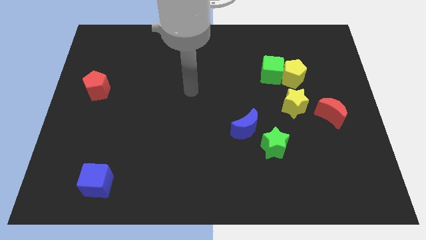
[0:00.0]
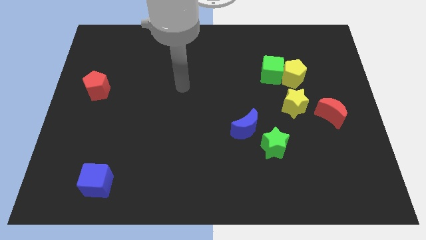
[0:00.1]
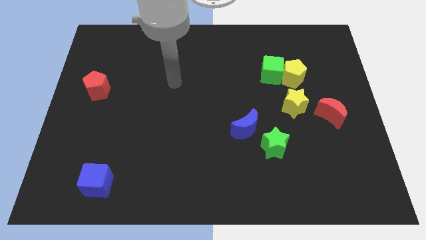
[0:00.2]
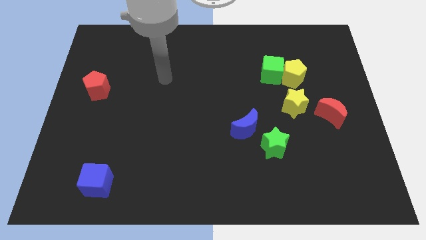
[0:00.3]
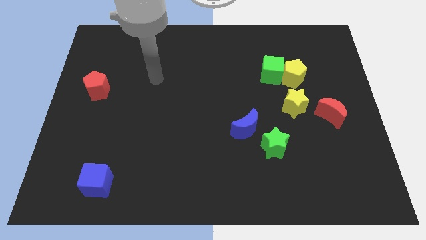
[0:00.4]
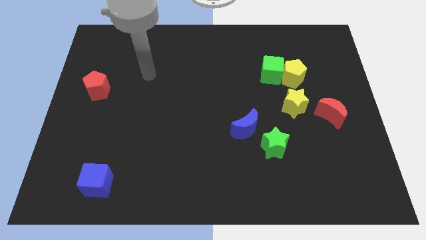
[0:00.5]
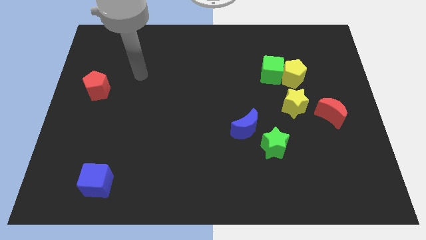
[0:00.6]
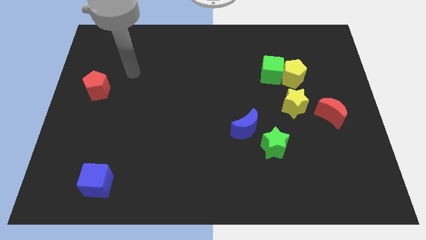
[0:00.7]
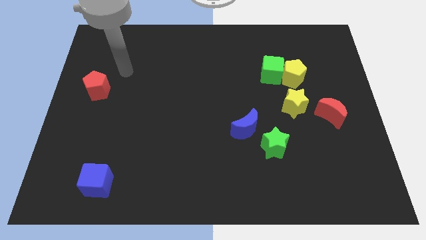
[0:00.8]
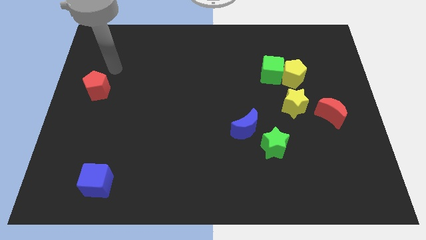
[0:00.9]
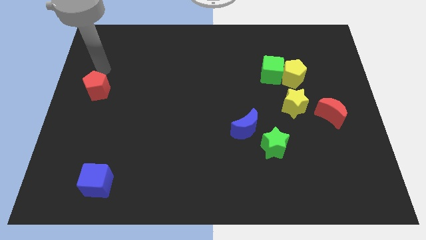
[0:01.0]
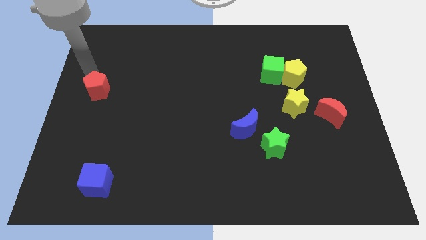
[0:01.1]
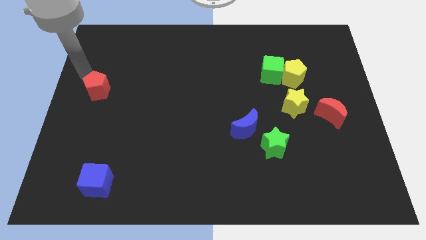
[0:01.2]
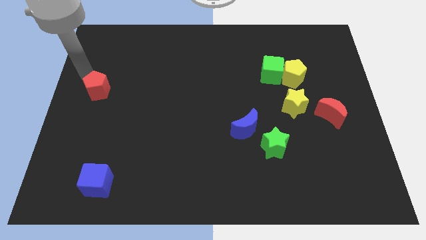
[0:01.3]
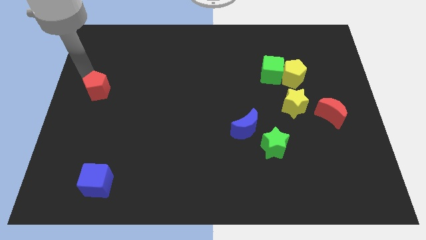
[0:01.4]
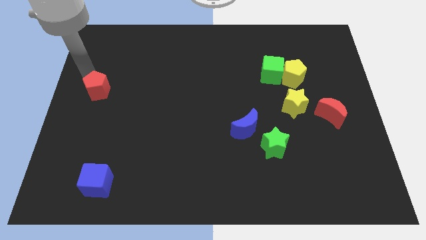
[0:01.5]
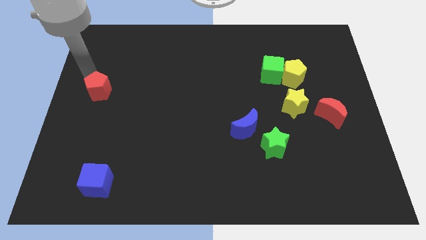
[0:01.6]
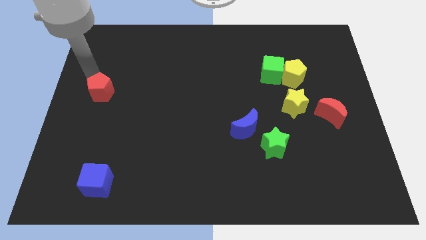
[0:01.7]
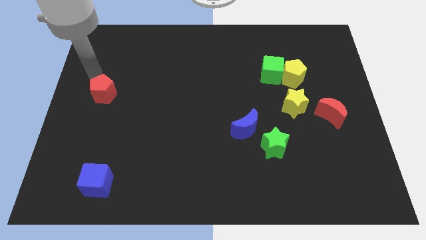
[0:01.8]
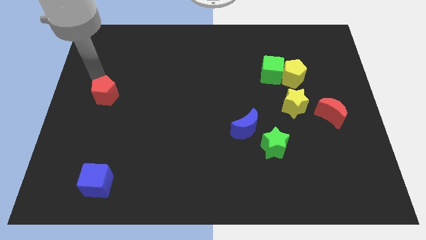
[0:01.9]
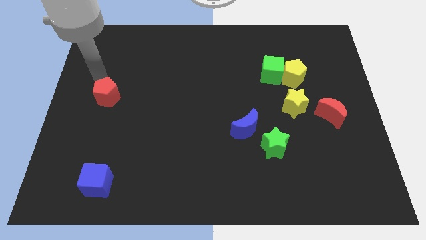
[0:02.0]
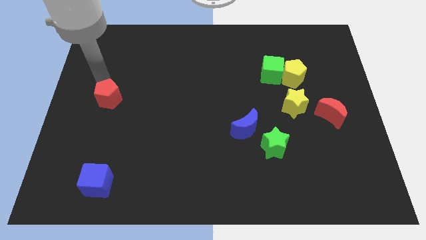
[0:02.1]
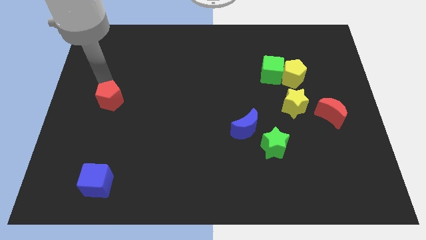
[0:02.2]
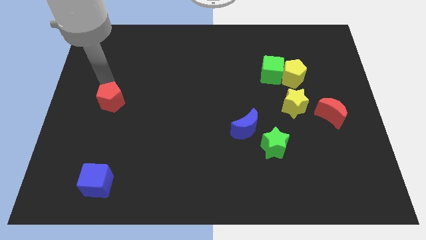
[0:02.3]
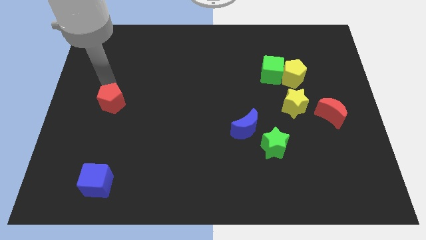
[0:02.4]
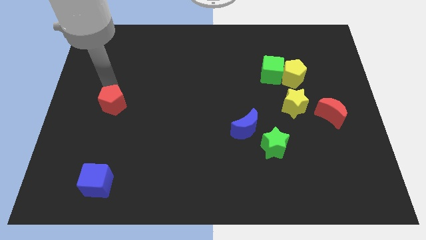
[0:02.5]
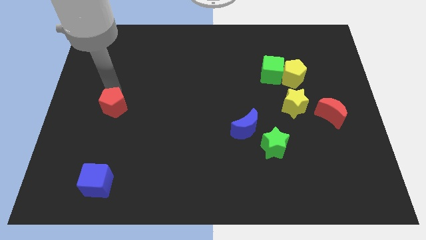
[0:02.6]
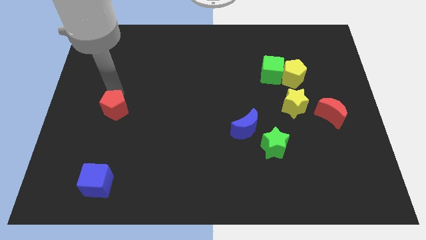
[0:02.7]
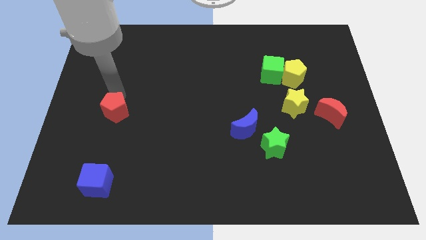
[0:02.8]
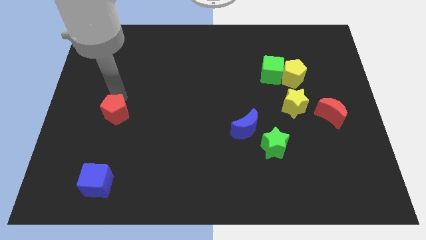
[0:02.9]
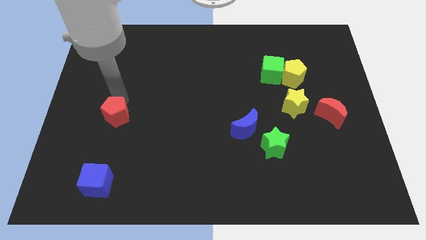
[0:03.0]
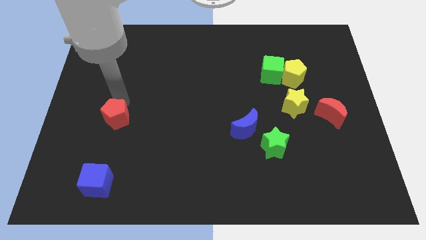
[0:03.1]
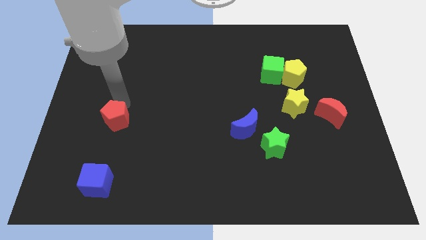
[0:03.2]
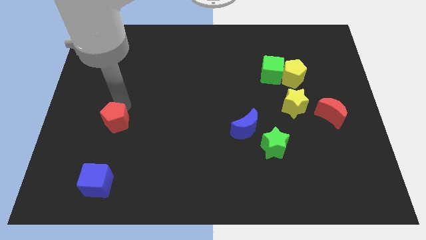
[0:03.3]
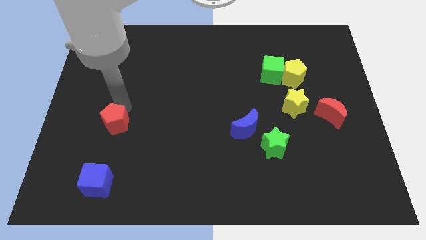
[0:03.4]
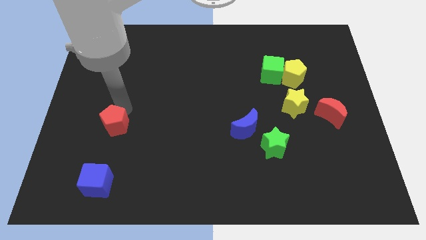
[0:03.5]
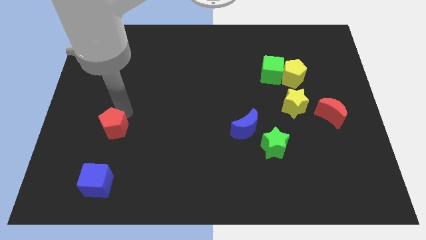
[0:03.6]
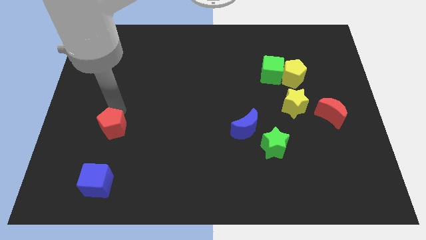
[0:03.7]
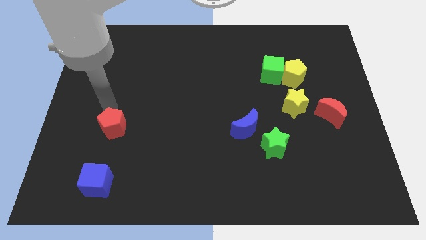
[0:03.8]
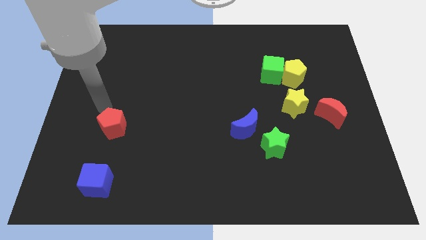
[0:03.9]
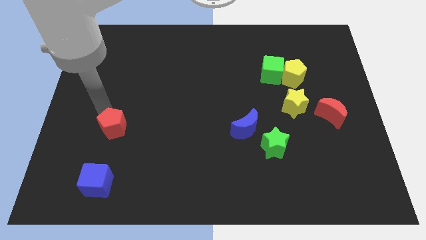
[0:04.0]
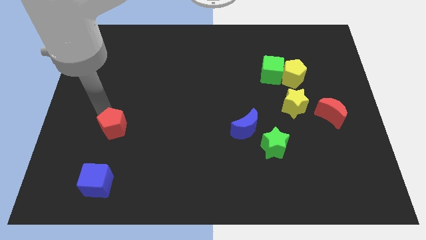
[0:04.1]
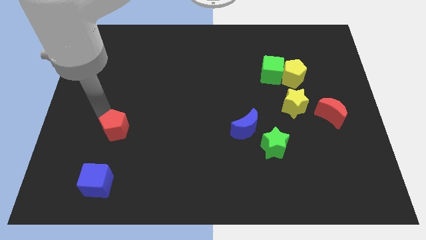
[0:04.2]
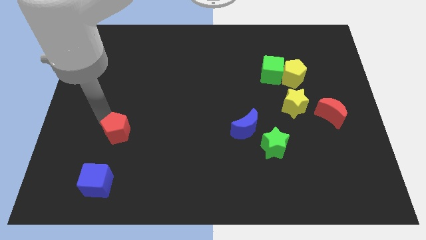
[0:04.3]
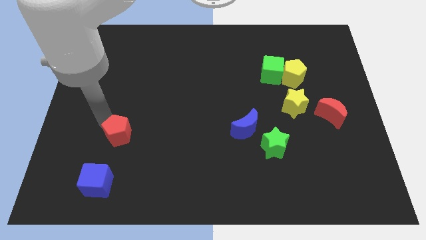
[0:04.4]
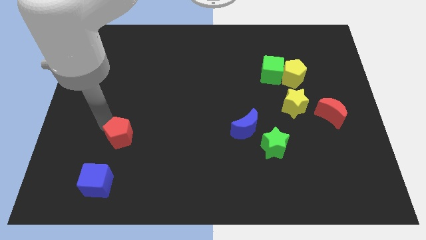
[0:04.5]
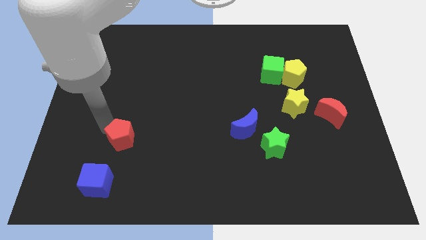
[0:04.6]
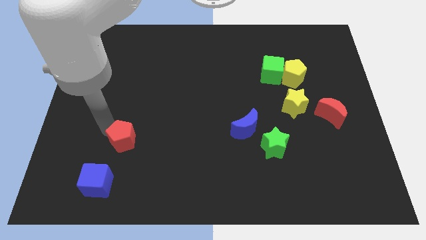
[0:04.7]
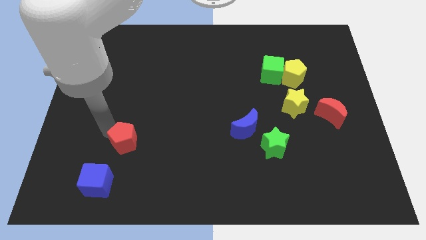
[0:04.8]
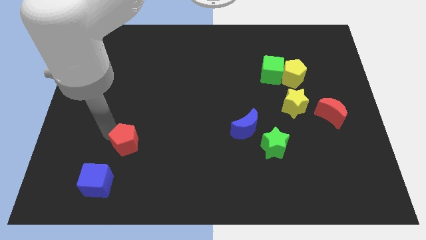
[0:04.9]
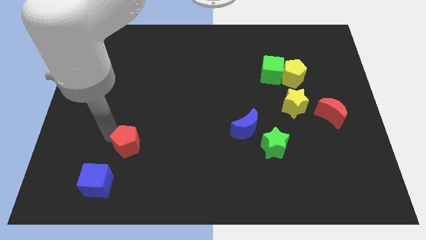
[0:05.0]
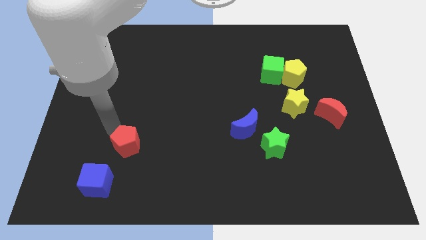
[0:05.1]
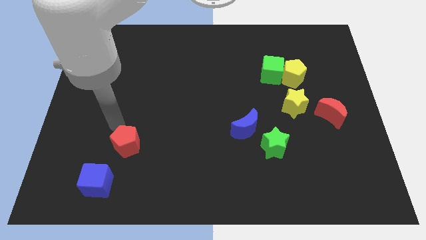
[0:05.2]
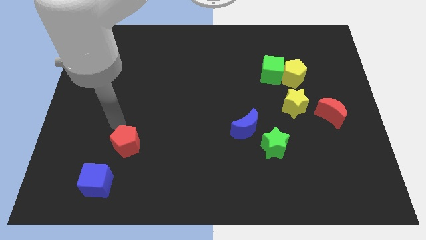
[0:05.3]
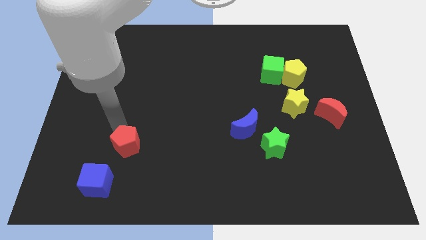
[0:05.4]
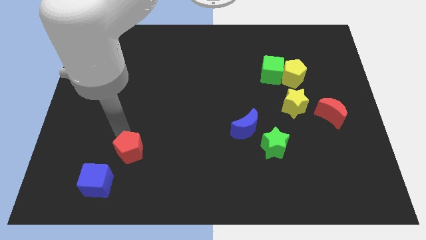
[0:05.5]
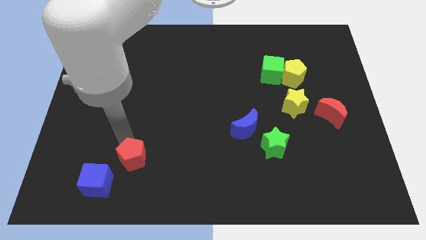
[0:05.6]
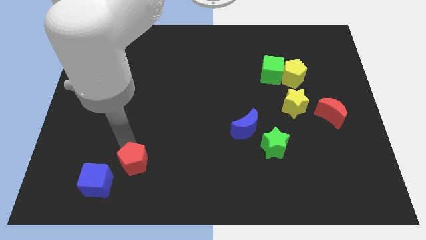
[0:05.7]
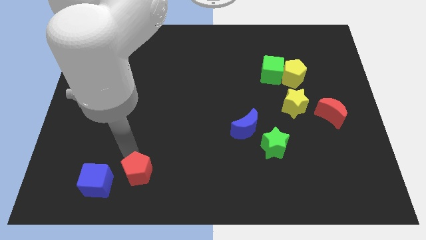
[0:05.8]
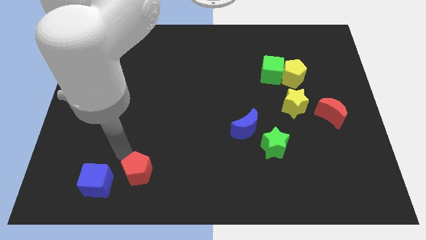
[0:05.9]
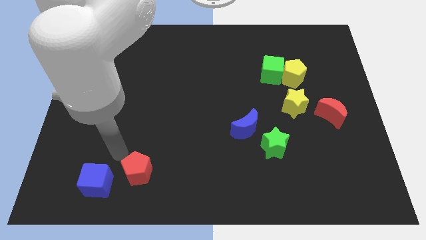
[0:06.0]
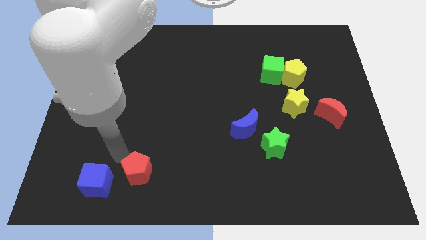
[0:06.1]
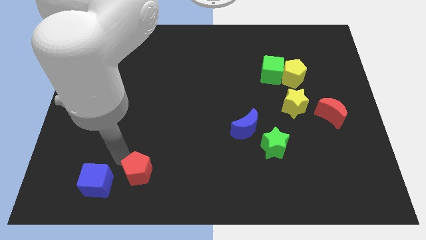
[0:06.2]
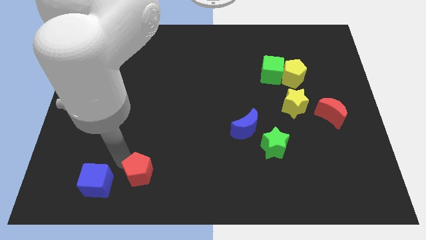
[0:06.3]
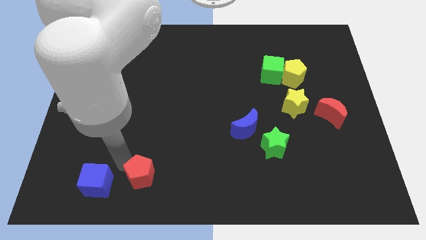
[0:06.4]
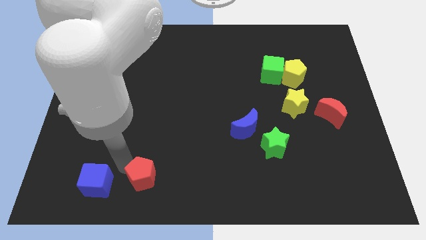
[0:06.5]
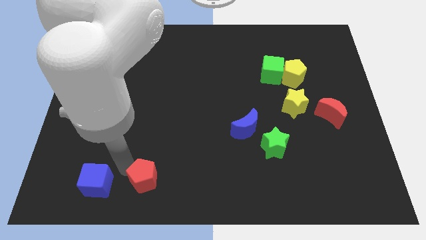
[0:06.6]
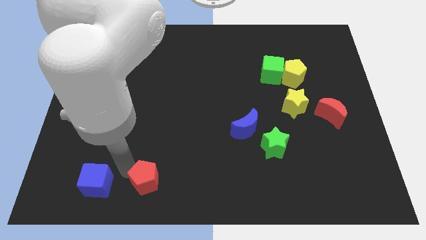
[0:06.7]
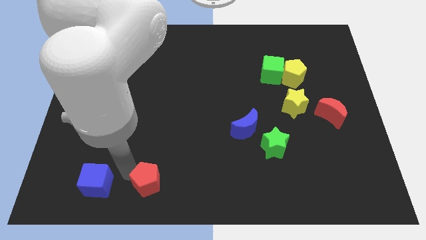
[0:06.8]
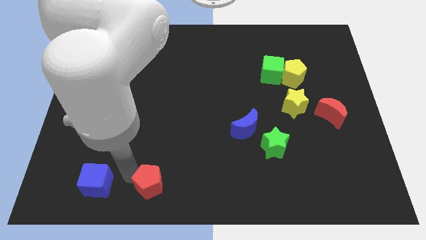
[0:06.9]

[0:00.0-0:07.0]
push the red pentagon to the bottom side
